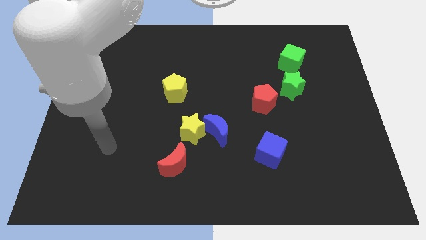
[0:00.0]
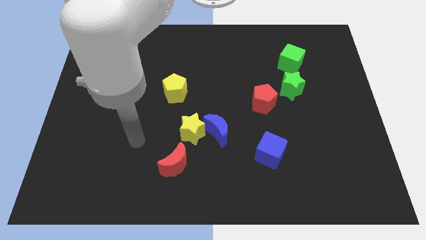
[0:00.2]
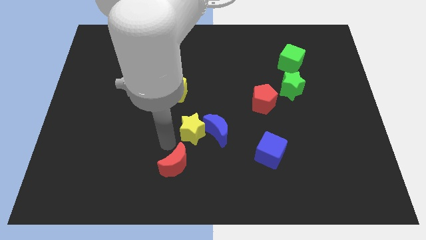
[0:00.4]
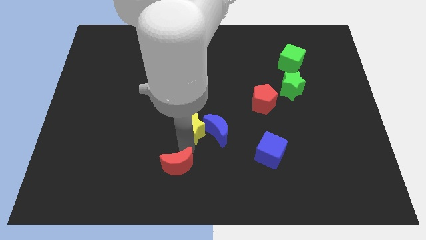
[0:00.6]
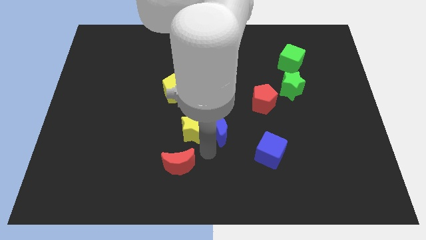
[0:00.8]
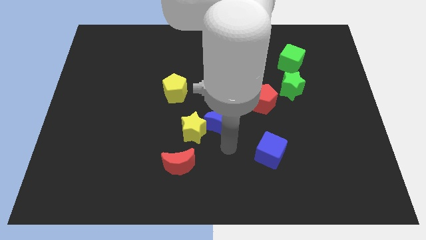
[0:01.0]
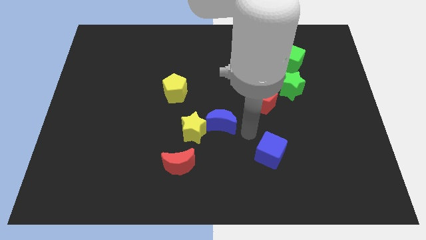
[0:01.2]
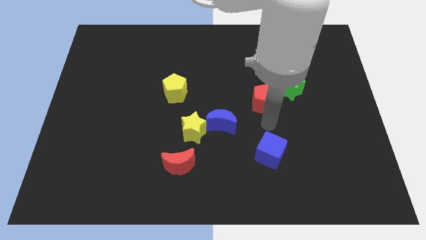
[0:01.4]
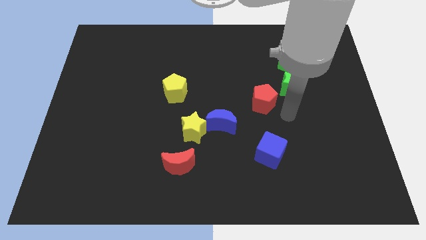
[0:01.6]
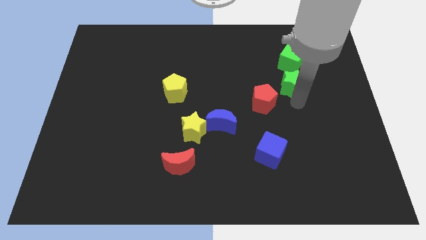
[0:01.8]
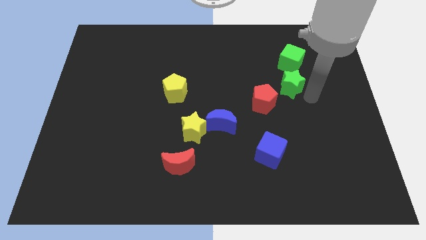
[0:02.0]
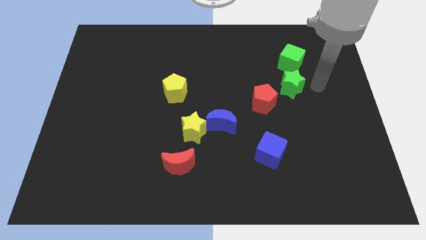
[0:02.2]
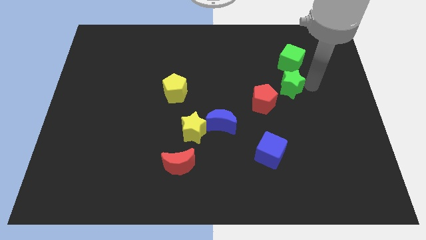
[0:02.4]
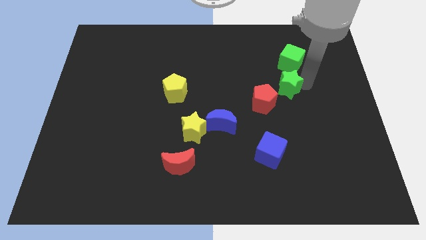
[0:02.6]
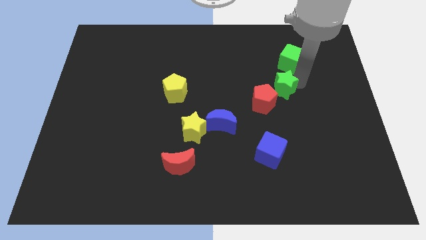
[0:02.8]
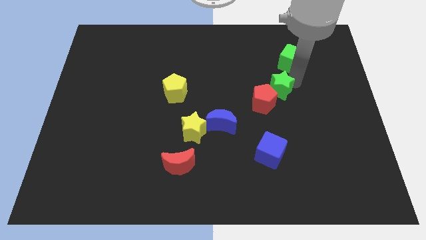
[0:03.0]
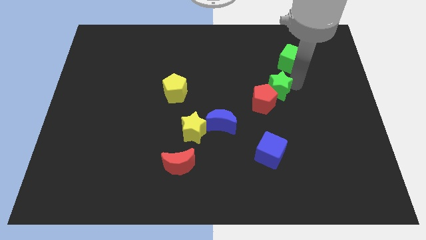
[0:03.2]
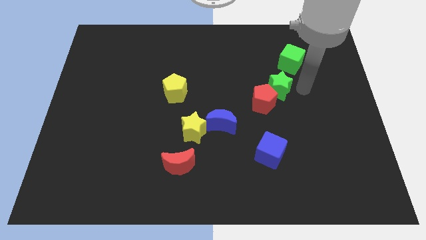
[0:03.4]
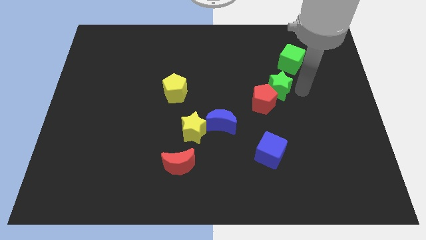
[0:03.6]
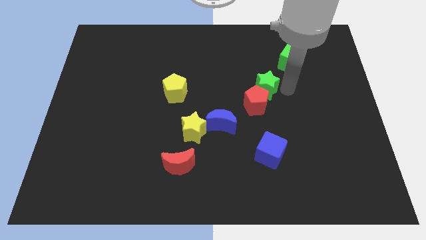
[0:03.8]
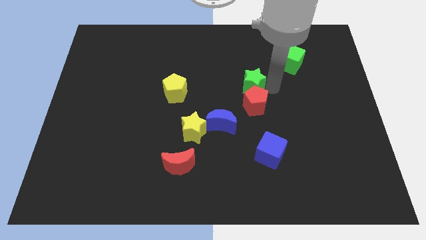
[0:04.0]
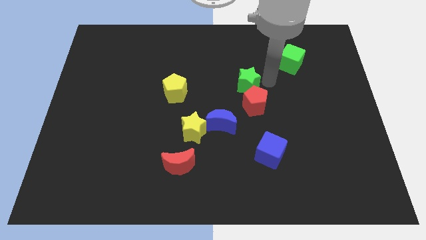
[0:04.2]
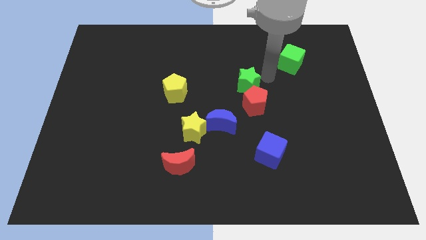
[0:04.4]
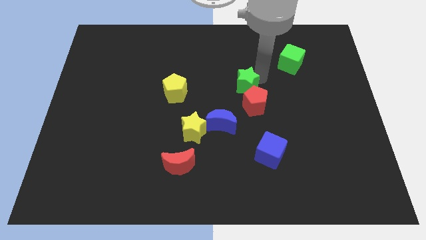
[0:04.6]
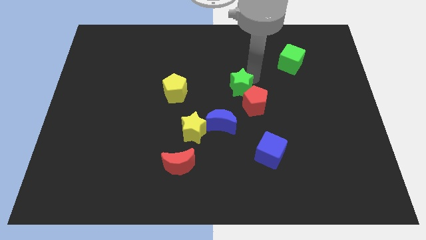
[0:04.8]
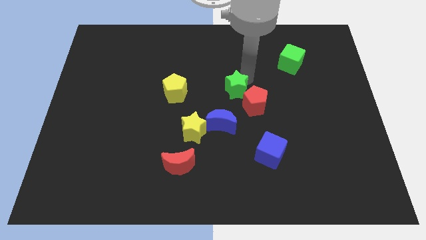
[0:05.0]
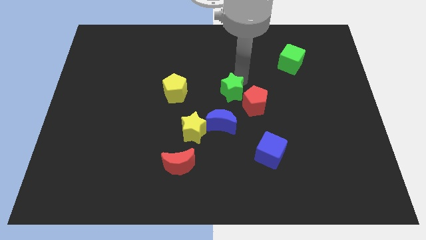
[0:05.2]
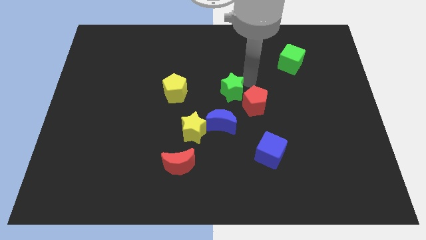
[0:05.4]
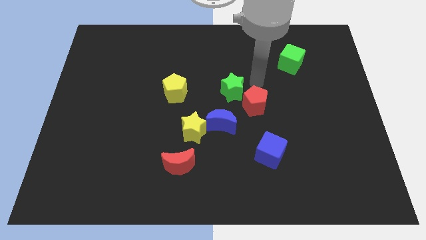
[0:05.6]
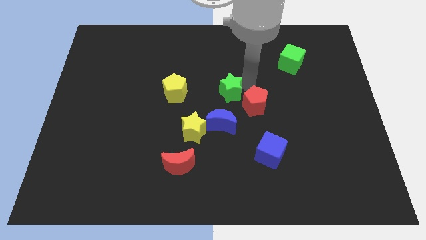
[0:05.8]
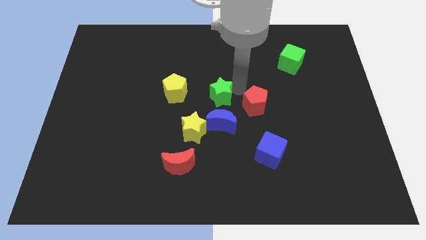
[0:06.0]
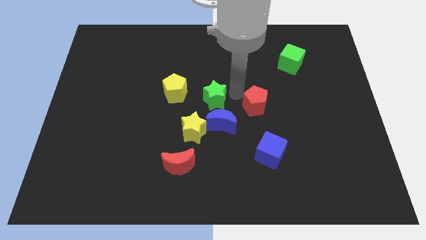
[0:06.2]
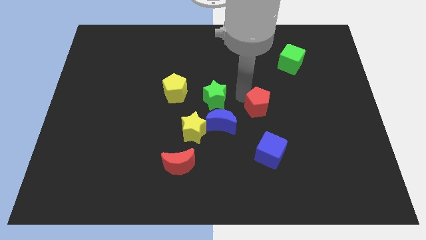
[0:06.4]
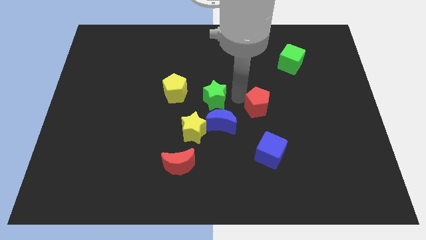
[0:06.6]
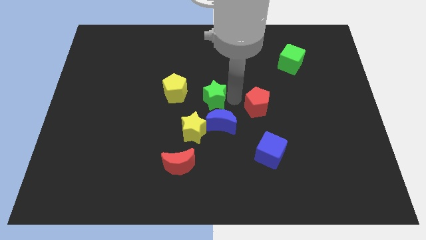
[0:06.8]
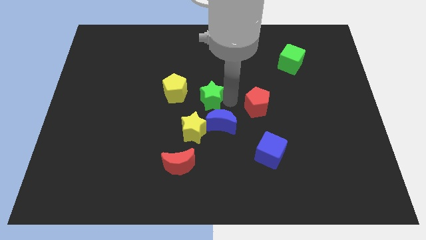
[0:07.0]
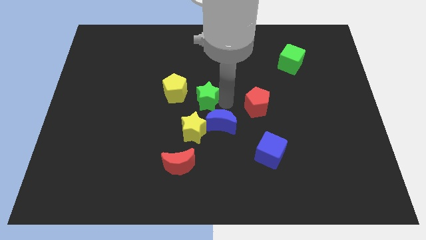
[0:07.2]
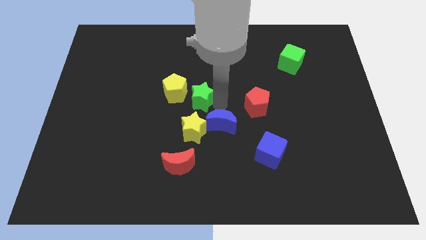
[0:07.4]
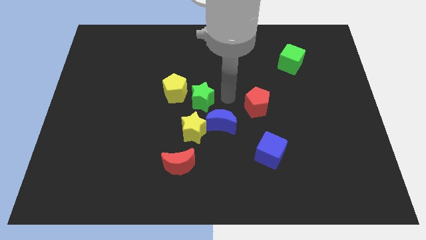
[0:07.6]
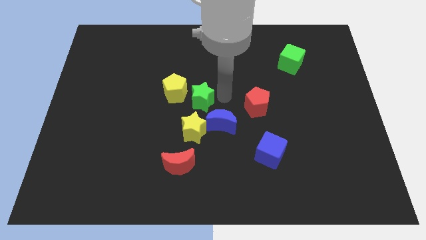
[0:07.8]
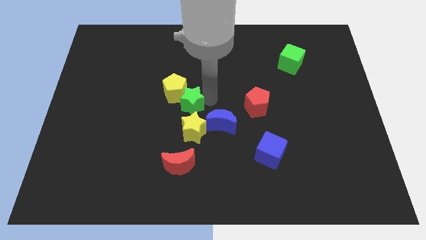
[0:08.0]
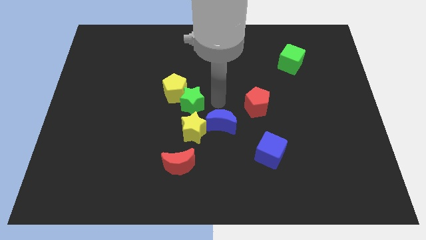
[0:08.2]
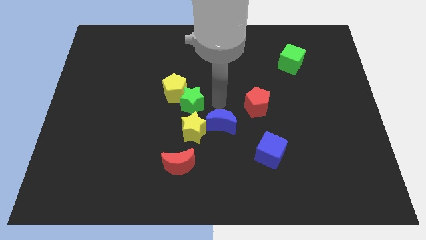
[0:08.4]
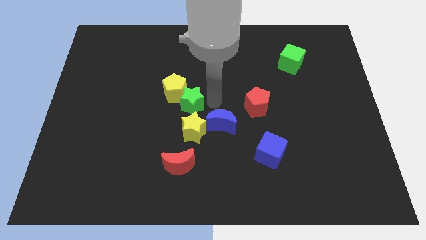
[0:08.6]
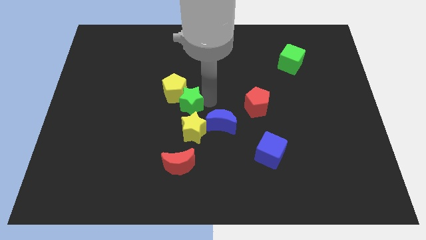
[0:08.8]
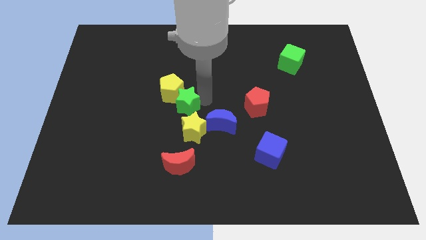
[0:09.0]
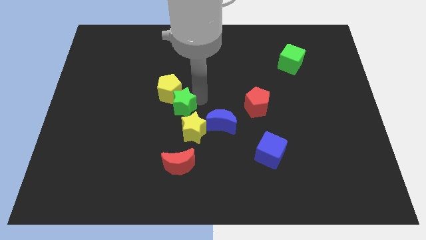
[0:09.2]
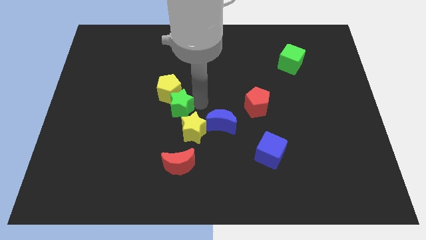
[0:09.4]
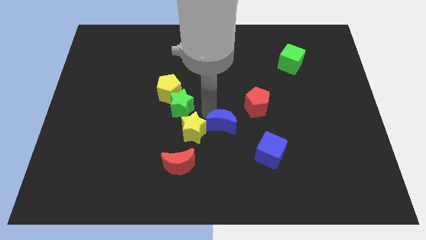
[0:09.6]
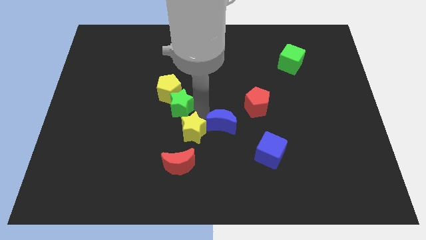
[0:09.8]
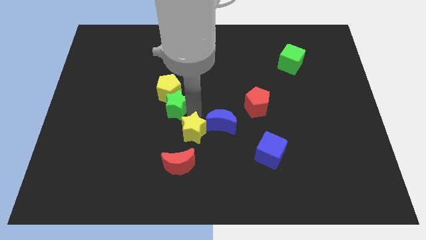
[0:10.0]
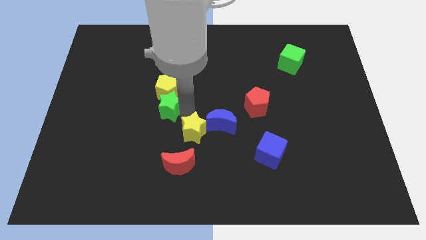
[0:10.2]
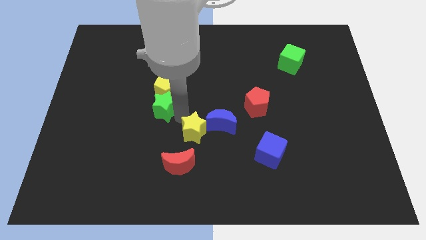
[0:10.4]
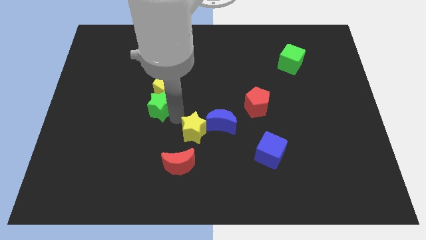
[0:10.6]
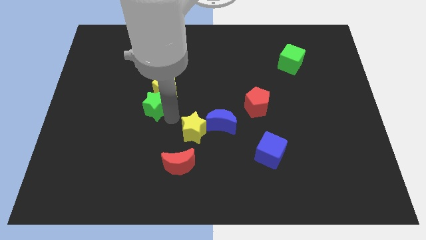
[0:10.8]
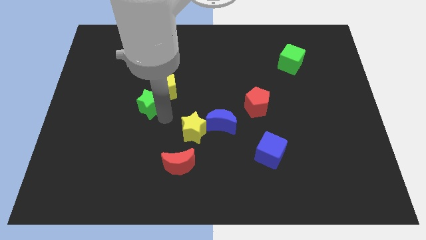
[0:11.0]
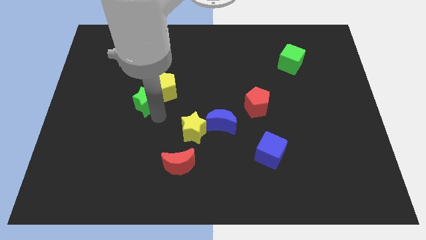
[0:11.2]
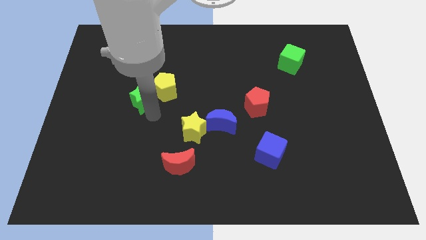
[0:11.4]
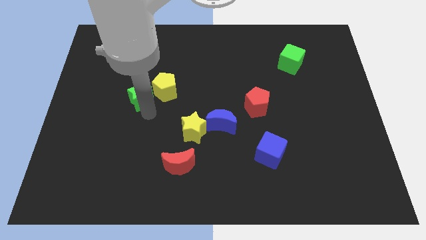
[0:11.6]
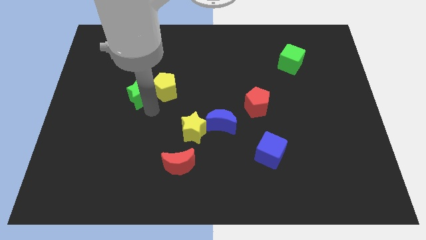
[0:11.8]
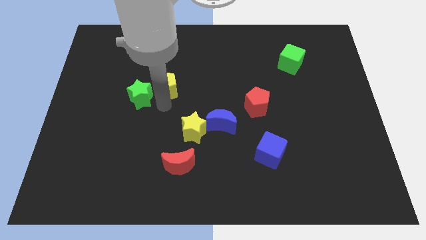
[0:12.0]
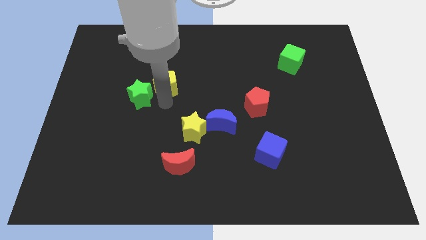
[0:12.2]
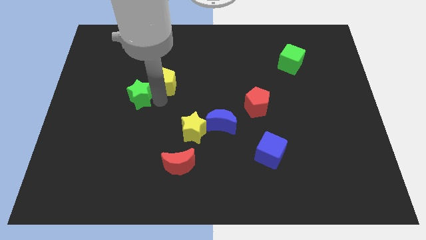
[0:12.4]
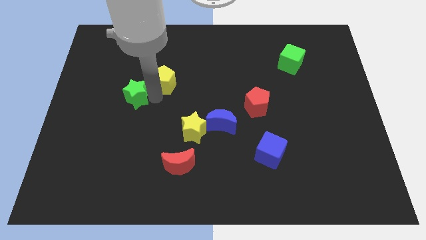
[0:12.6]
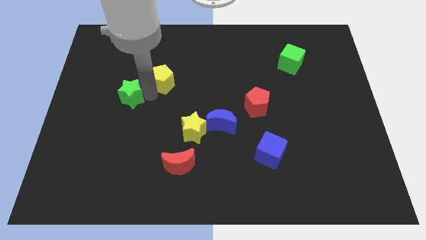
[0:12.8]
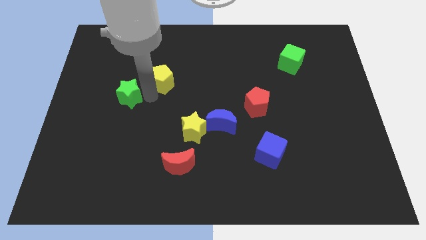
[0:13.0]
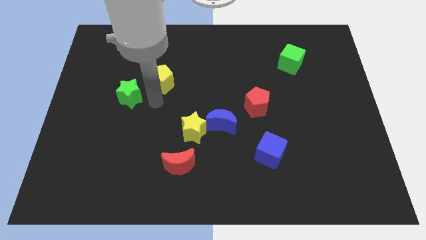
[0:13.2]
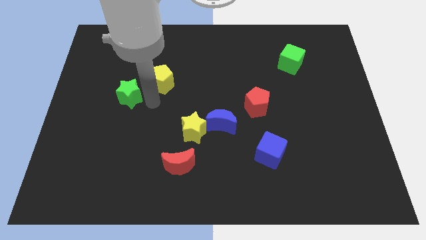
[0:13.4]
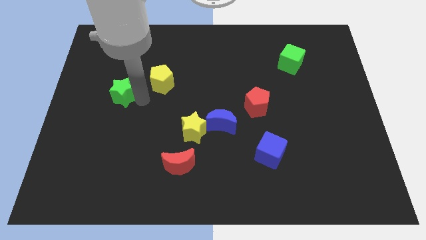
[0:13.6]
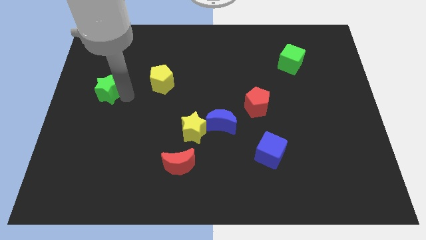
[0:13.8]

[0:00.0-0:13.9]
put the green star to the left side
